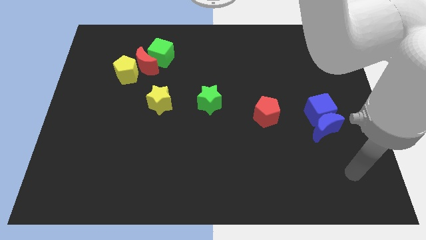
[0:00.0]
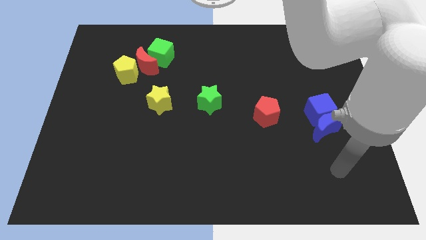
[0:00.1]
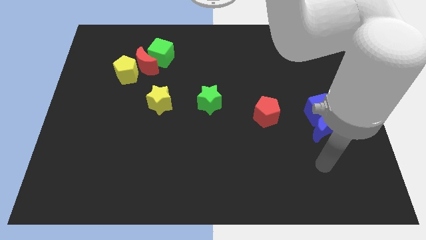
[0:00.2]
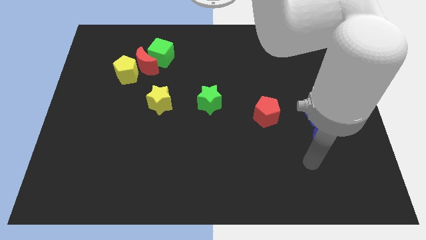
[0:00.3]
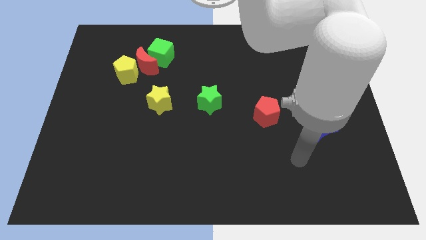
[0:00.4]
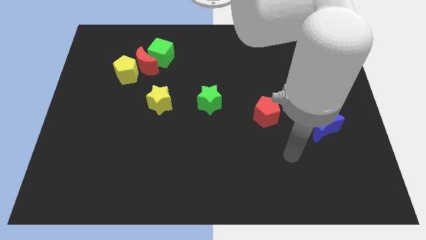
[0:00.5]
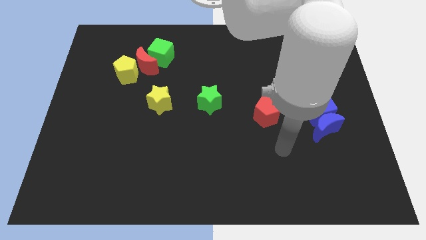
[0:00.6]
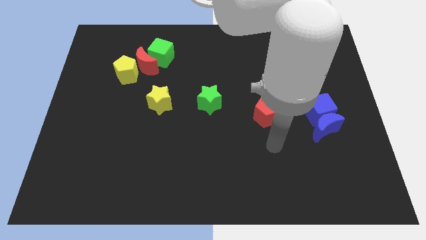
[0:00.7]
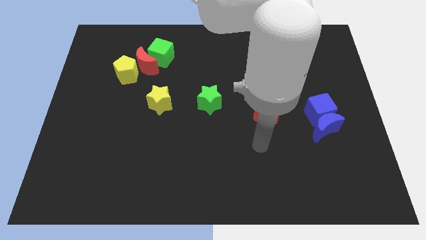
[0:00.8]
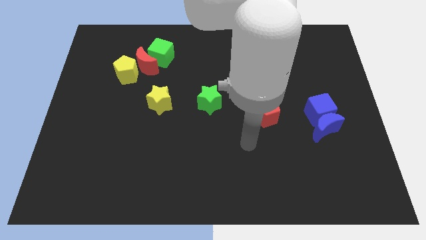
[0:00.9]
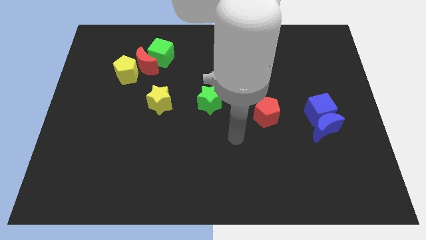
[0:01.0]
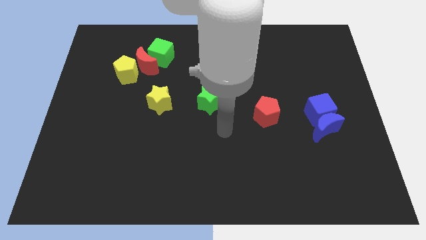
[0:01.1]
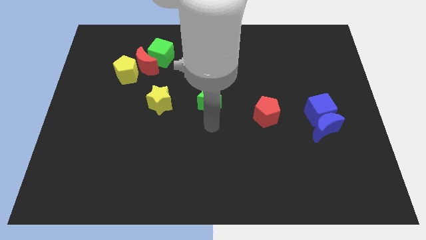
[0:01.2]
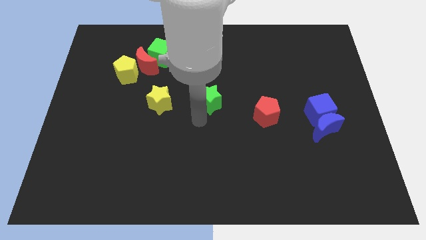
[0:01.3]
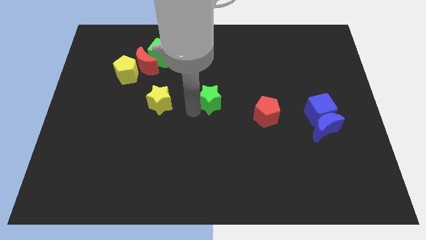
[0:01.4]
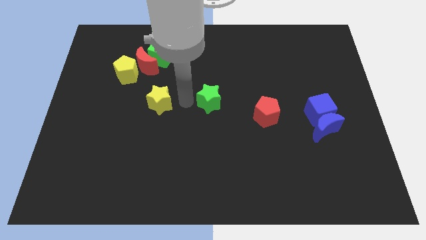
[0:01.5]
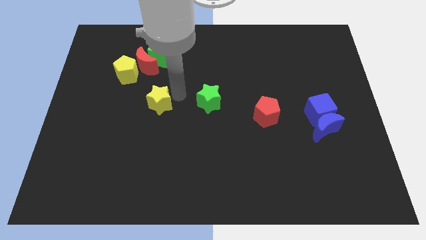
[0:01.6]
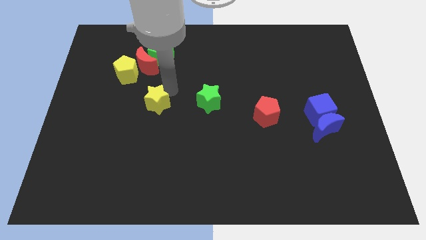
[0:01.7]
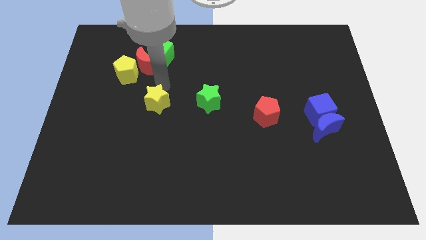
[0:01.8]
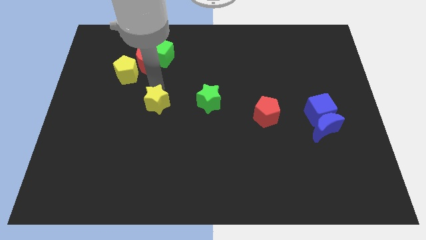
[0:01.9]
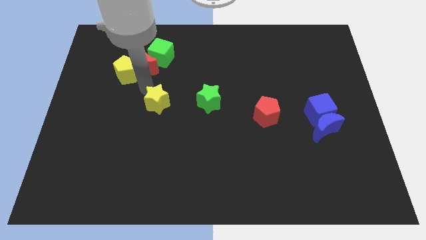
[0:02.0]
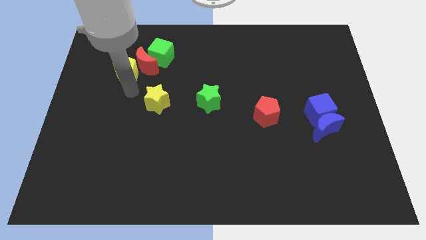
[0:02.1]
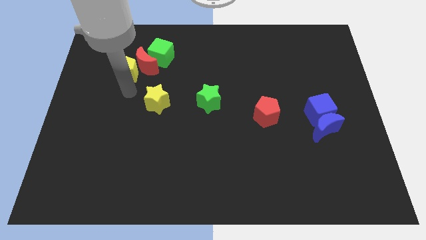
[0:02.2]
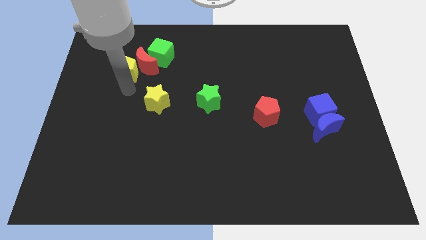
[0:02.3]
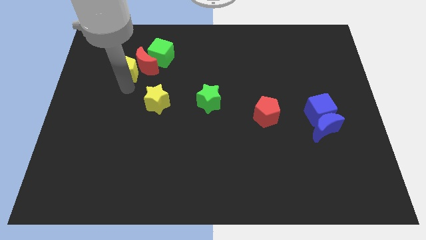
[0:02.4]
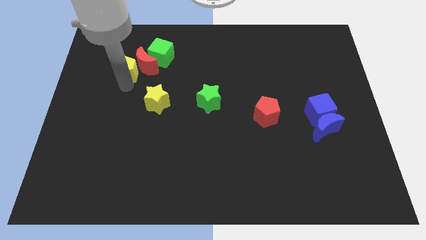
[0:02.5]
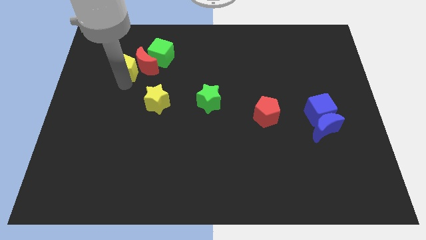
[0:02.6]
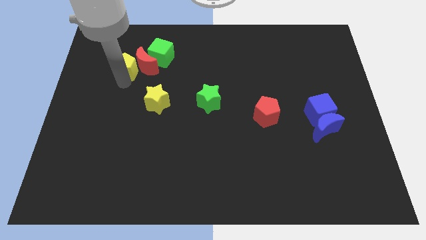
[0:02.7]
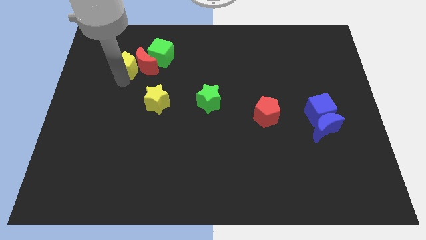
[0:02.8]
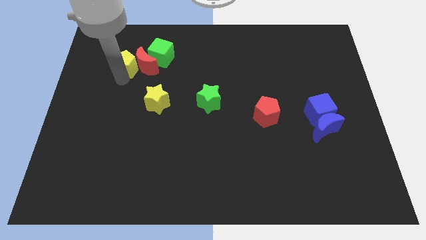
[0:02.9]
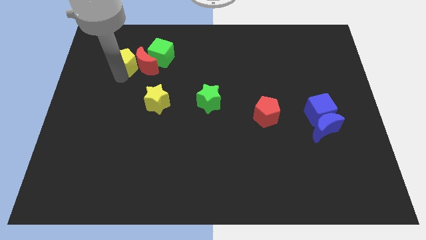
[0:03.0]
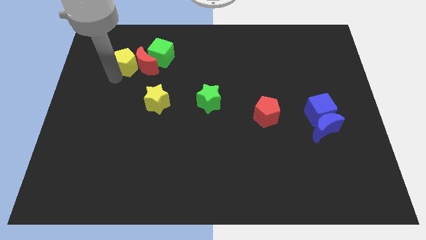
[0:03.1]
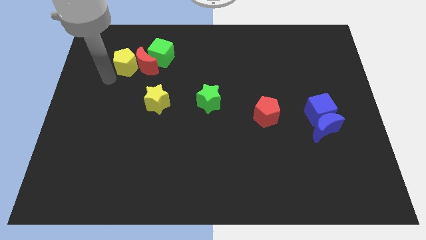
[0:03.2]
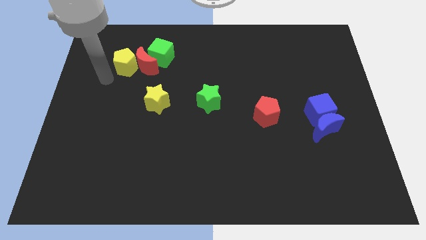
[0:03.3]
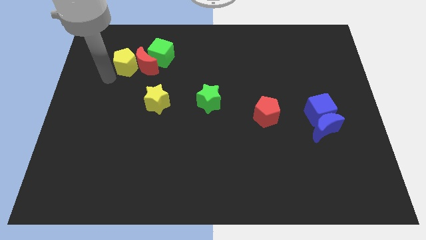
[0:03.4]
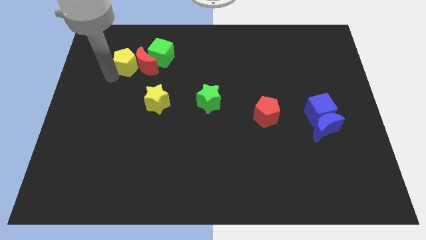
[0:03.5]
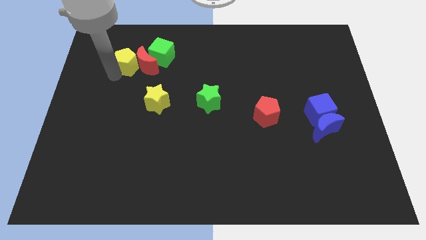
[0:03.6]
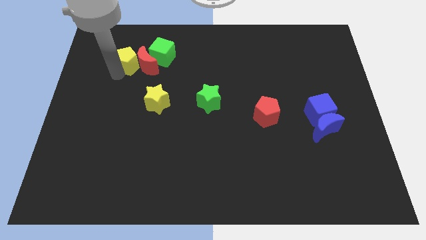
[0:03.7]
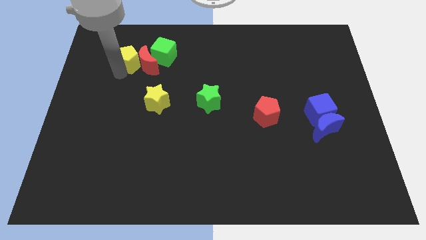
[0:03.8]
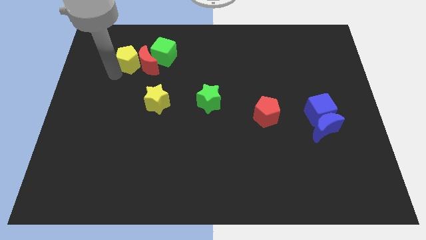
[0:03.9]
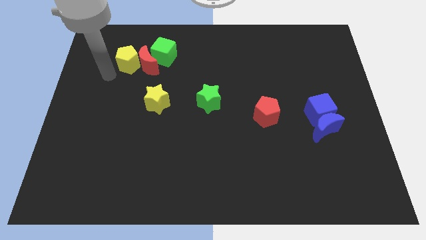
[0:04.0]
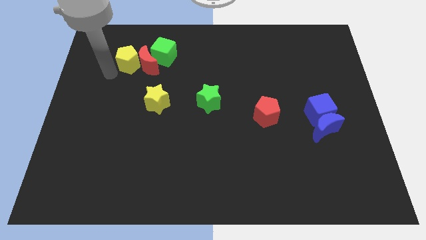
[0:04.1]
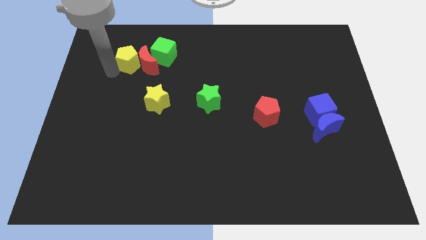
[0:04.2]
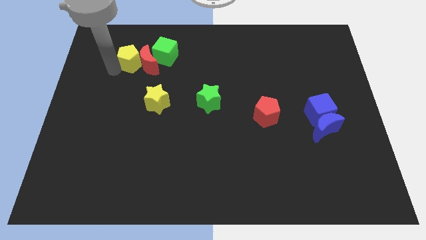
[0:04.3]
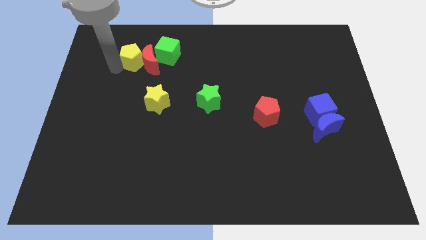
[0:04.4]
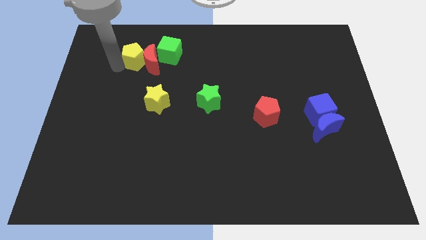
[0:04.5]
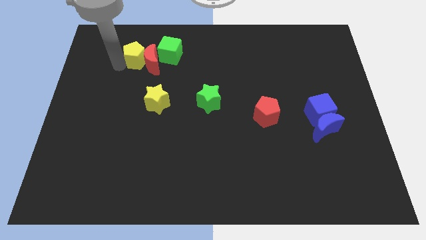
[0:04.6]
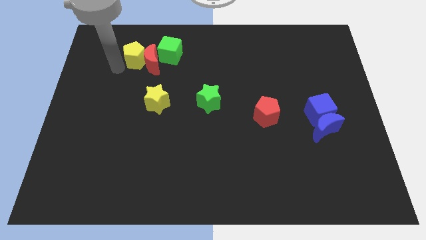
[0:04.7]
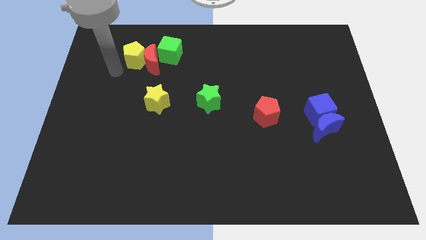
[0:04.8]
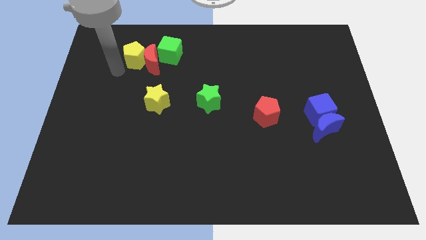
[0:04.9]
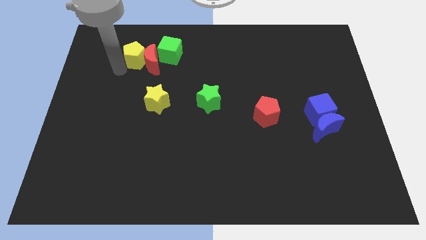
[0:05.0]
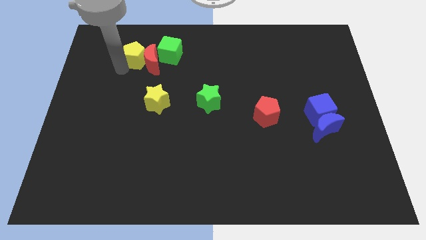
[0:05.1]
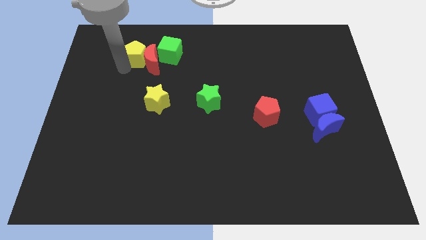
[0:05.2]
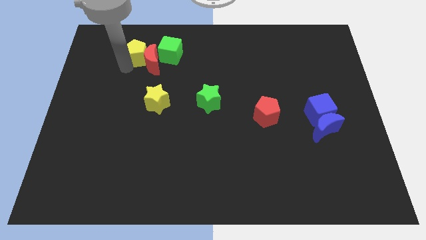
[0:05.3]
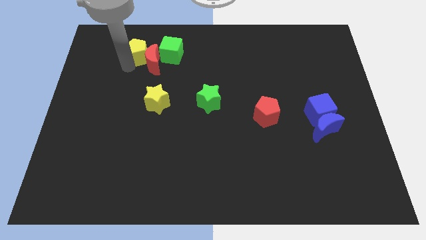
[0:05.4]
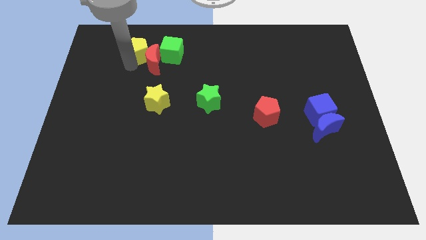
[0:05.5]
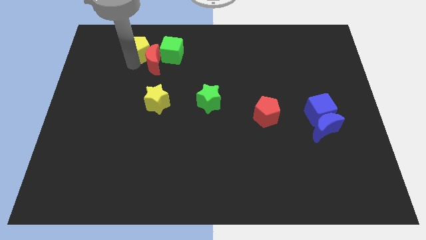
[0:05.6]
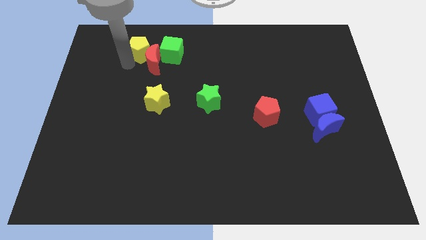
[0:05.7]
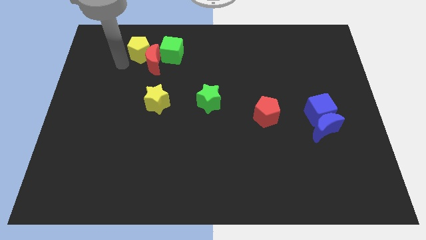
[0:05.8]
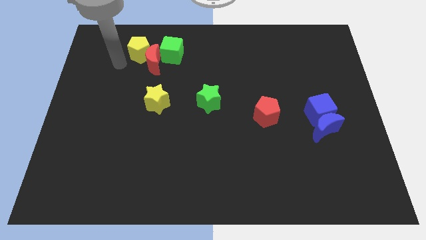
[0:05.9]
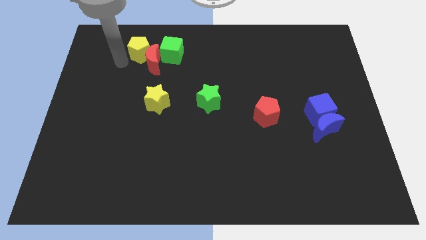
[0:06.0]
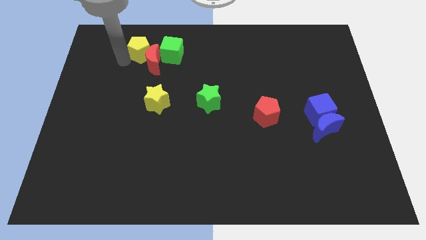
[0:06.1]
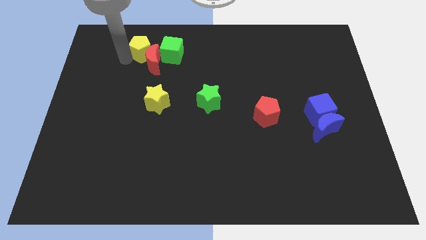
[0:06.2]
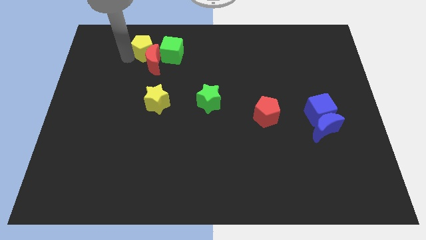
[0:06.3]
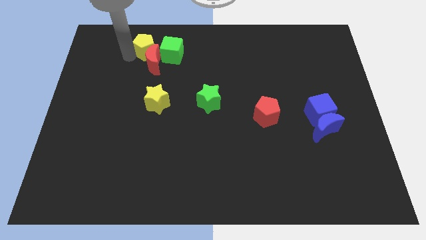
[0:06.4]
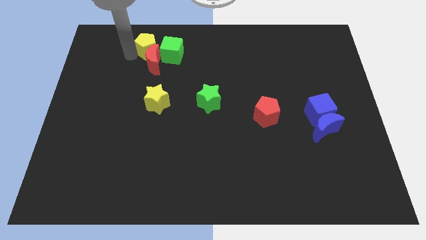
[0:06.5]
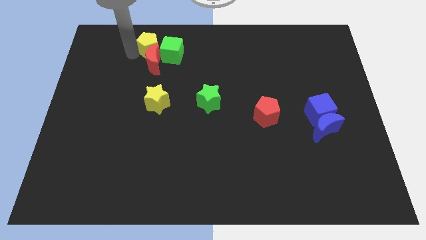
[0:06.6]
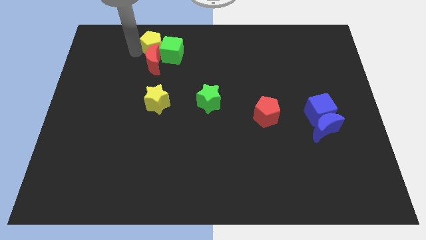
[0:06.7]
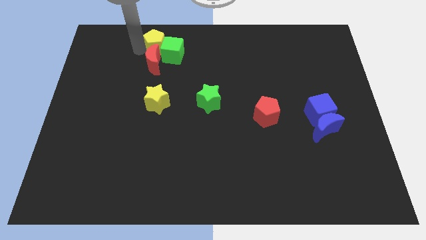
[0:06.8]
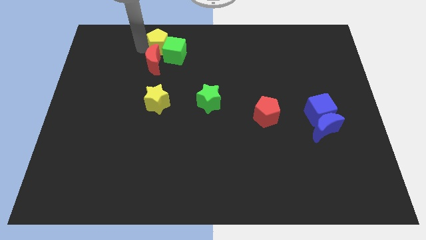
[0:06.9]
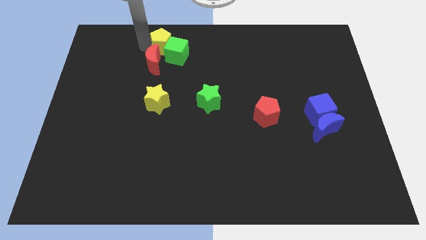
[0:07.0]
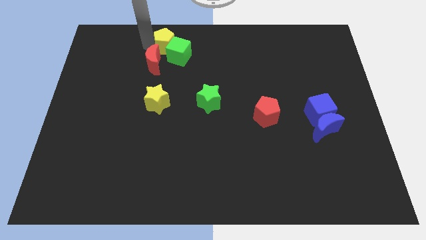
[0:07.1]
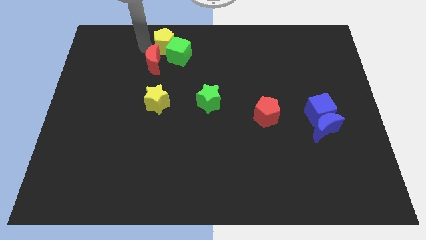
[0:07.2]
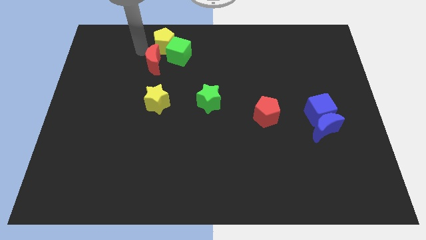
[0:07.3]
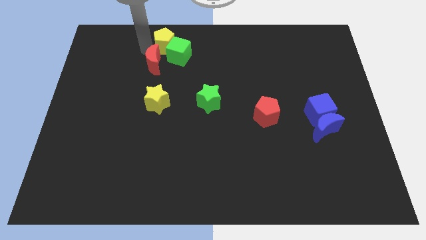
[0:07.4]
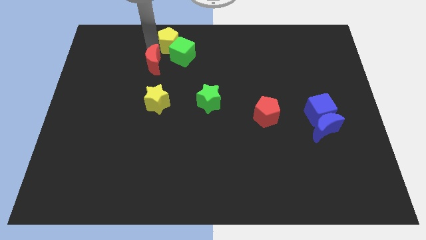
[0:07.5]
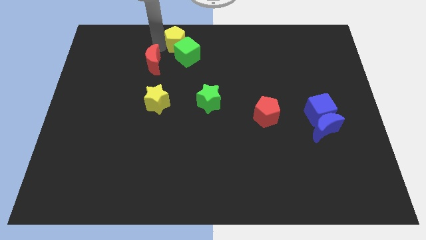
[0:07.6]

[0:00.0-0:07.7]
put the yellow pentagon to the top side
